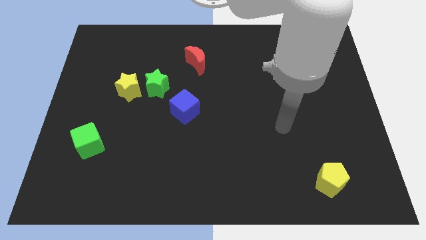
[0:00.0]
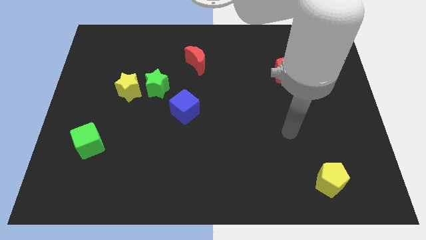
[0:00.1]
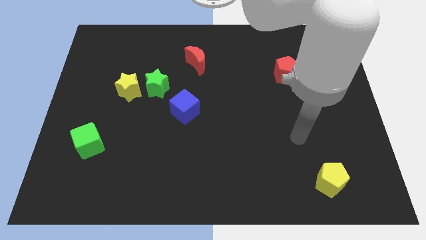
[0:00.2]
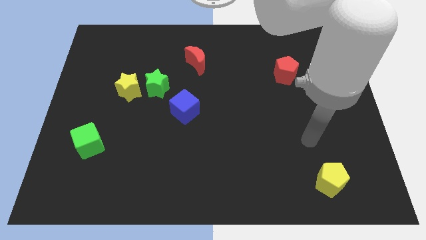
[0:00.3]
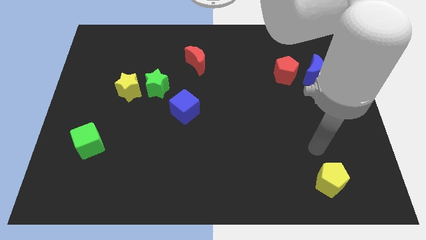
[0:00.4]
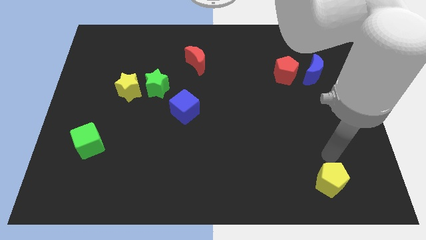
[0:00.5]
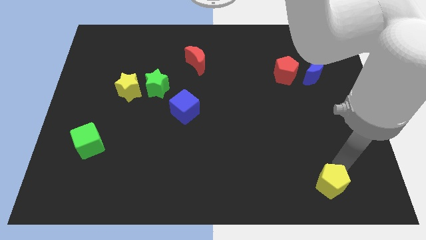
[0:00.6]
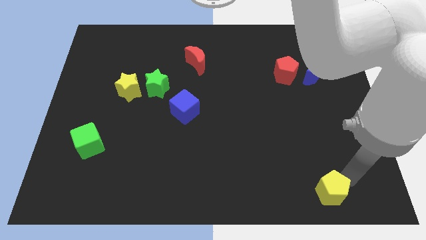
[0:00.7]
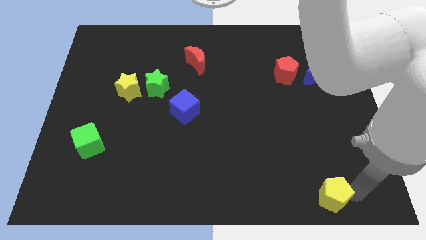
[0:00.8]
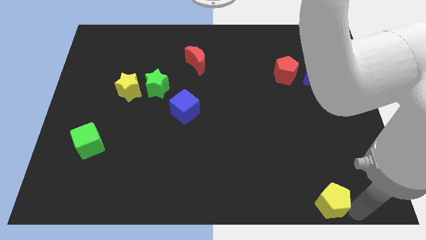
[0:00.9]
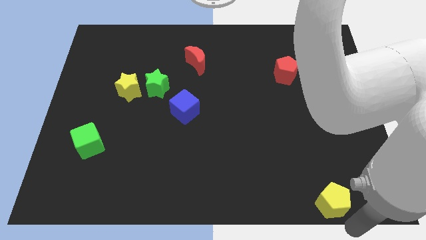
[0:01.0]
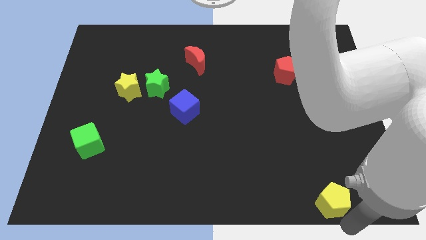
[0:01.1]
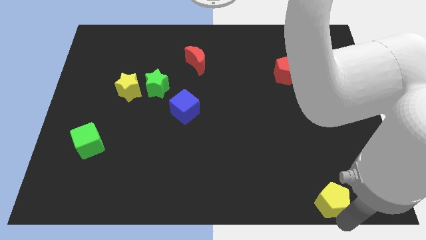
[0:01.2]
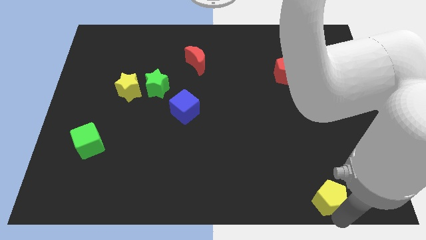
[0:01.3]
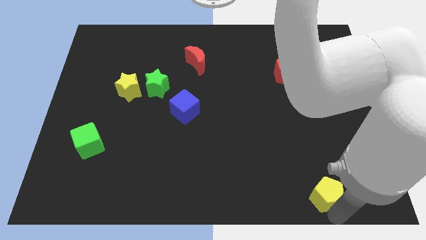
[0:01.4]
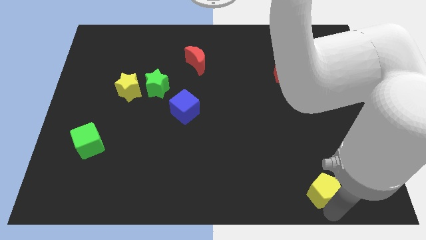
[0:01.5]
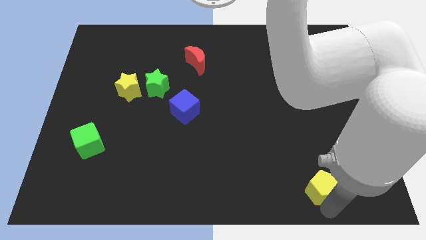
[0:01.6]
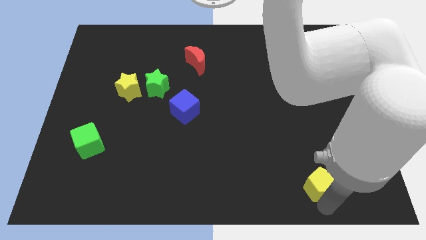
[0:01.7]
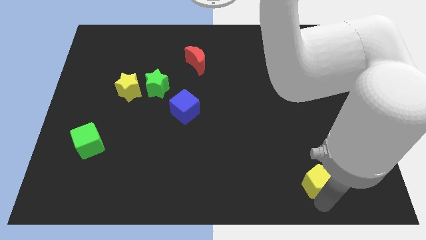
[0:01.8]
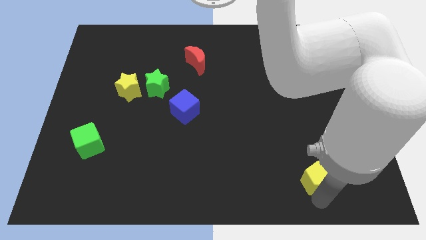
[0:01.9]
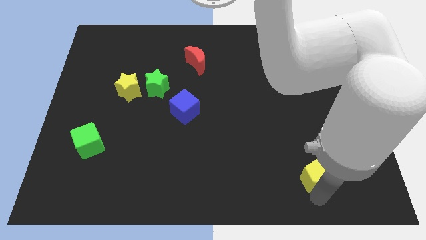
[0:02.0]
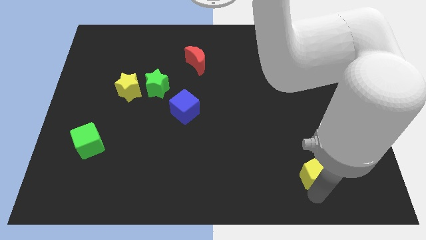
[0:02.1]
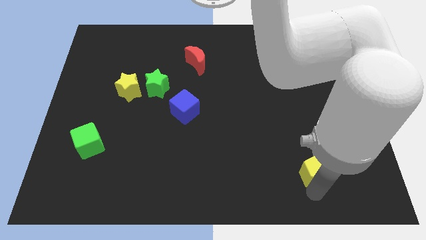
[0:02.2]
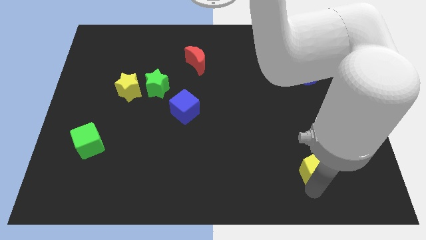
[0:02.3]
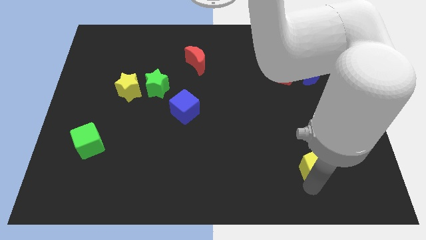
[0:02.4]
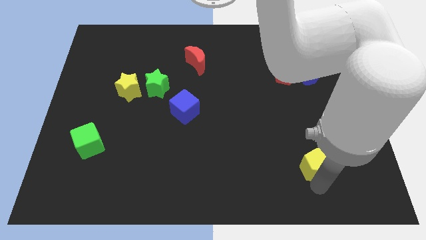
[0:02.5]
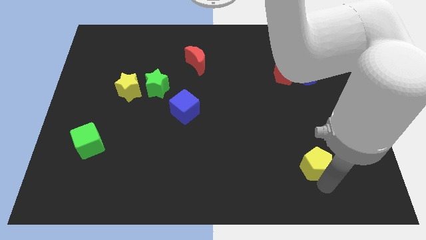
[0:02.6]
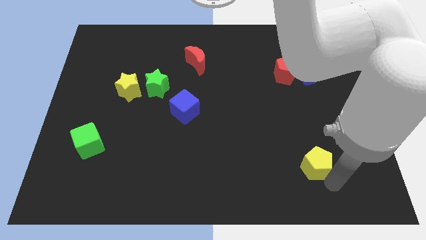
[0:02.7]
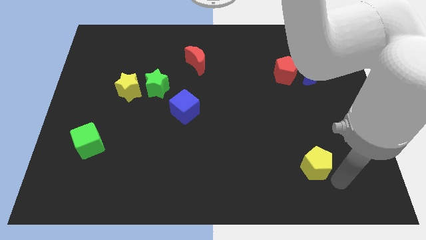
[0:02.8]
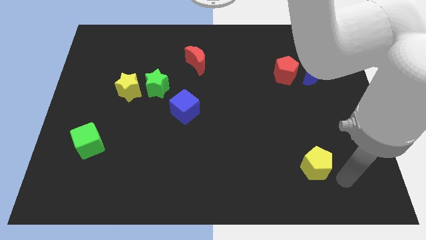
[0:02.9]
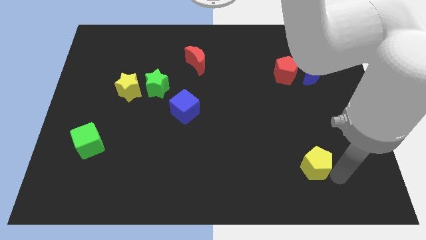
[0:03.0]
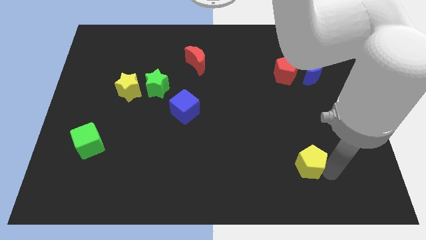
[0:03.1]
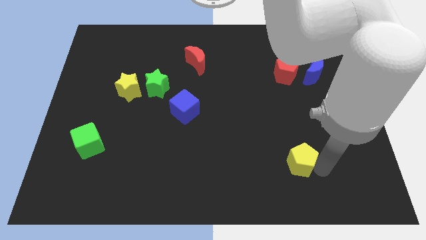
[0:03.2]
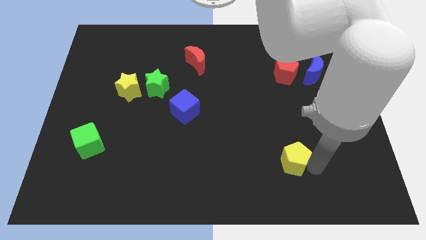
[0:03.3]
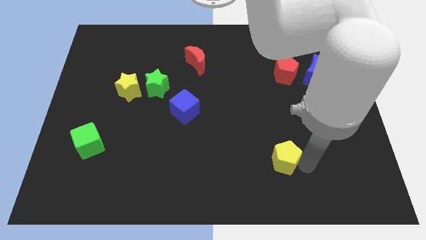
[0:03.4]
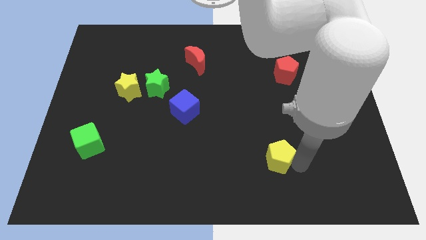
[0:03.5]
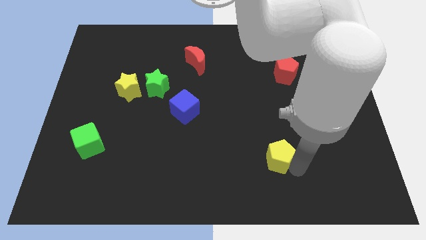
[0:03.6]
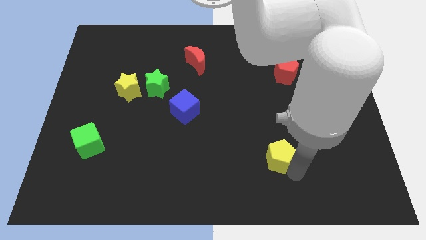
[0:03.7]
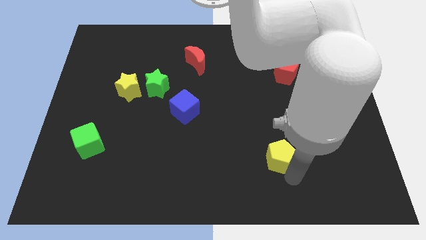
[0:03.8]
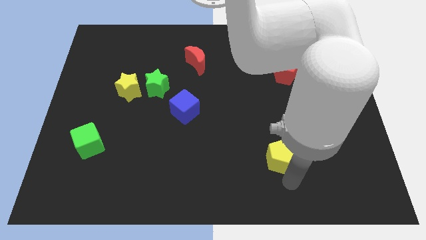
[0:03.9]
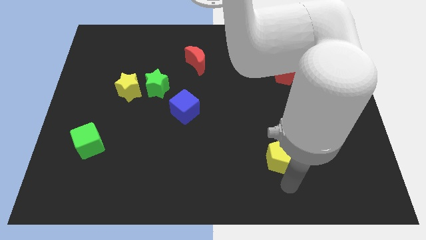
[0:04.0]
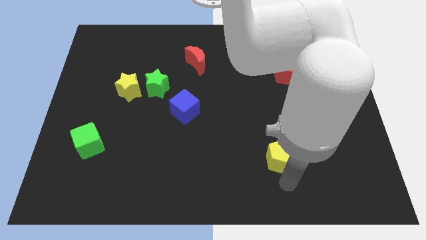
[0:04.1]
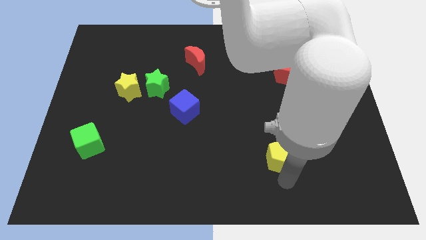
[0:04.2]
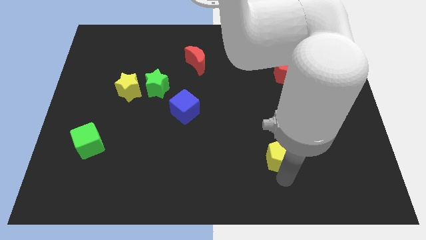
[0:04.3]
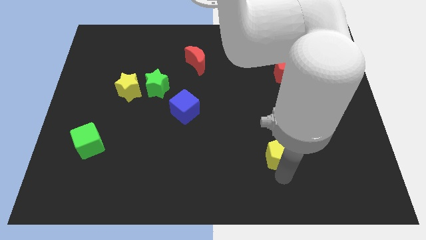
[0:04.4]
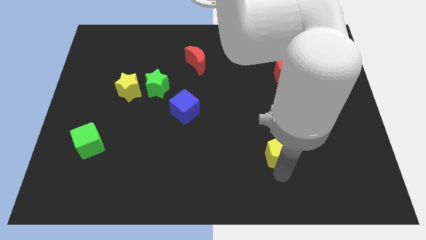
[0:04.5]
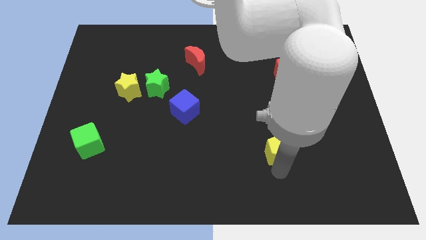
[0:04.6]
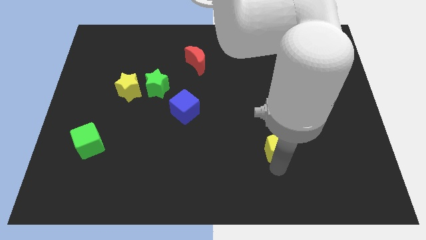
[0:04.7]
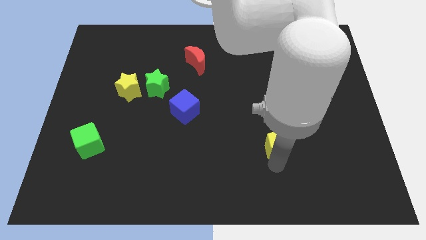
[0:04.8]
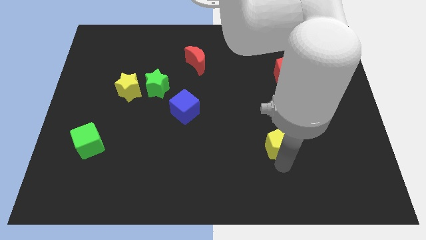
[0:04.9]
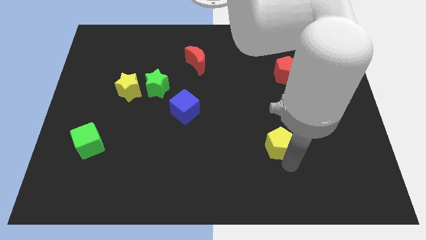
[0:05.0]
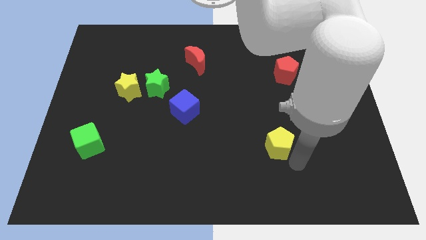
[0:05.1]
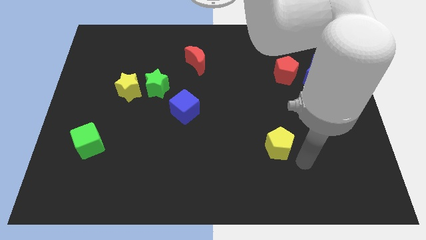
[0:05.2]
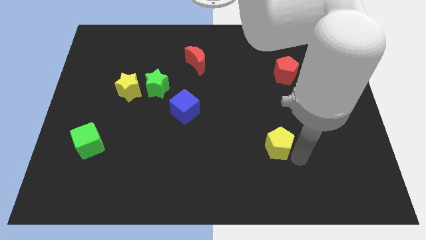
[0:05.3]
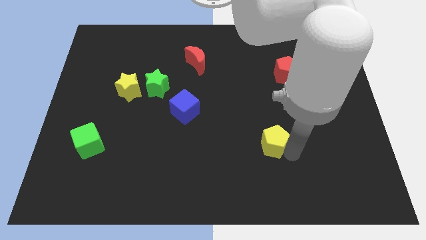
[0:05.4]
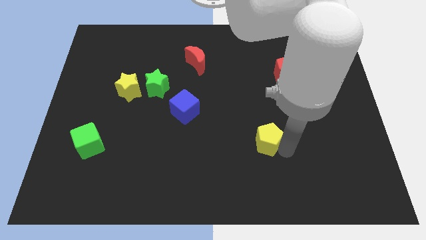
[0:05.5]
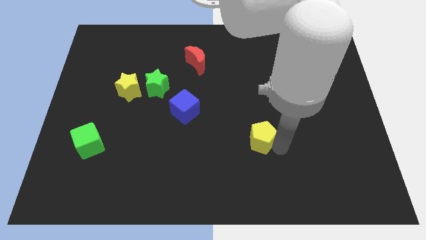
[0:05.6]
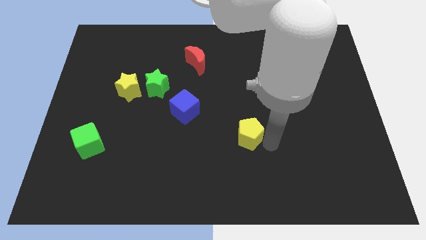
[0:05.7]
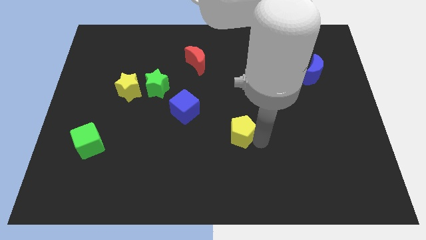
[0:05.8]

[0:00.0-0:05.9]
put the yellow pentagon to the middle
